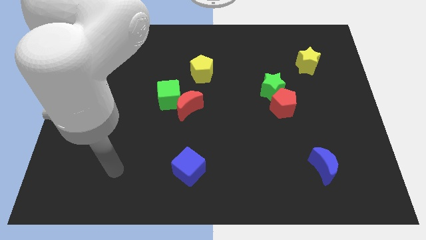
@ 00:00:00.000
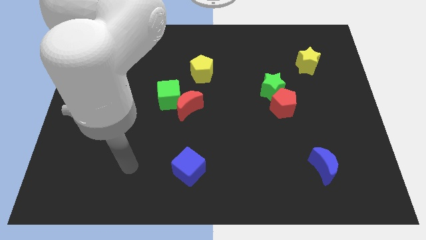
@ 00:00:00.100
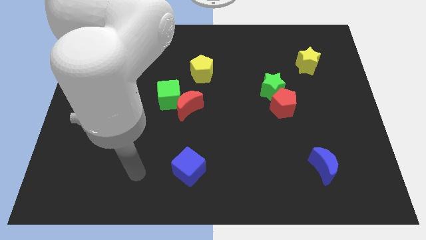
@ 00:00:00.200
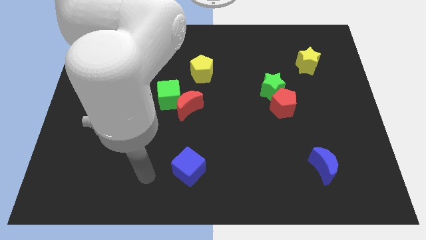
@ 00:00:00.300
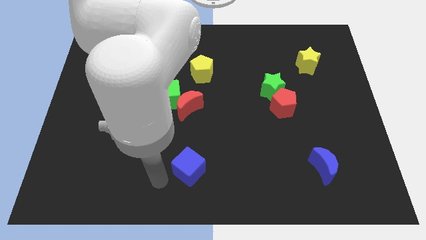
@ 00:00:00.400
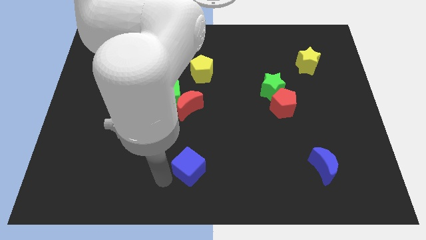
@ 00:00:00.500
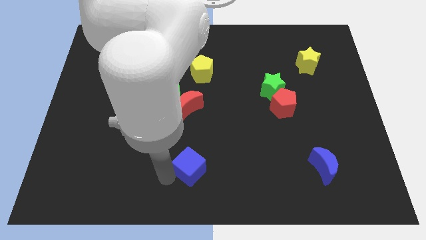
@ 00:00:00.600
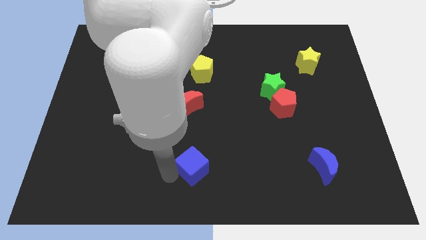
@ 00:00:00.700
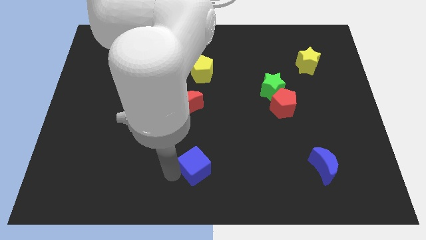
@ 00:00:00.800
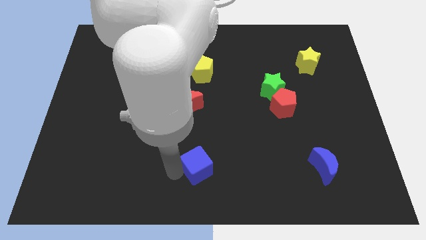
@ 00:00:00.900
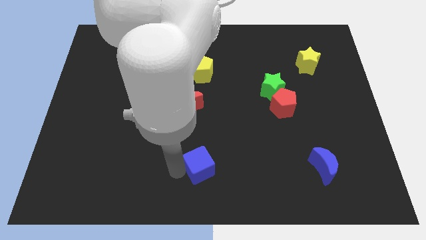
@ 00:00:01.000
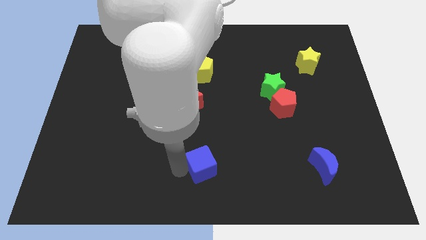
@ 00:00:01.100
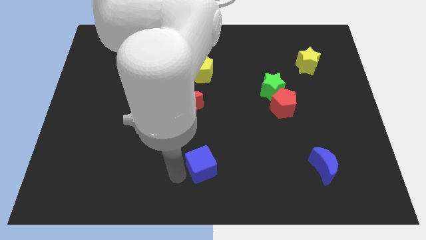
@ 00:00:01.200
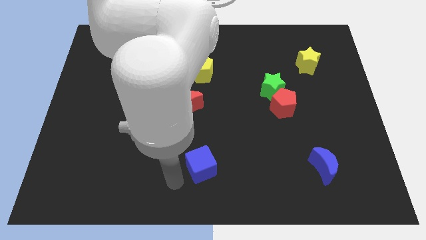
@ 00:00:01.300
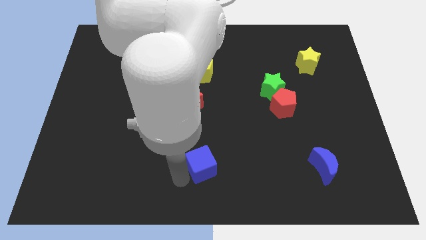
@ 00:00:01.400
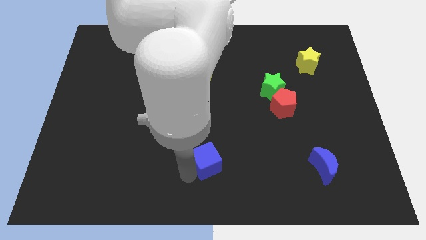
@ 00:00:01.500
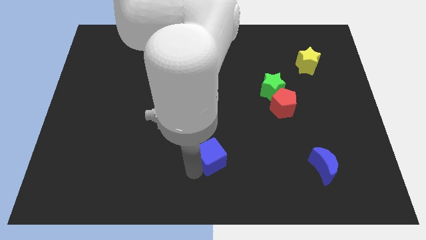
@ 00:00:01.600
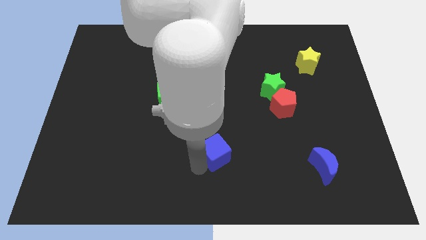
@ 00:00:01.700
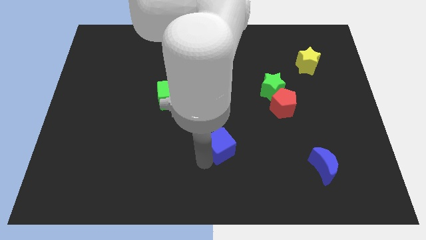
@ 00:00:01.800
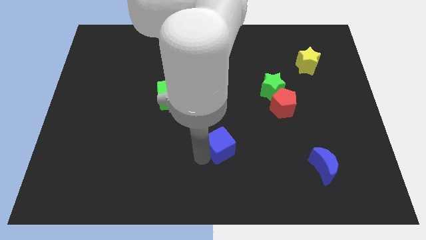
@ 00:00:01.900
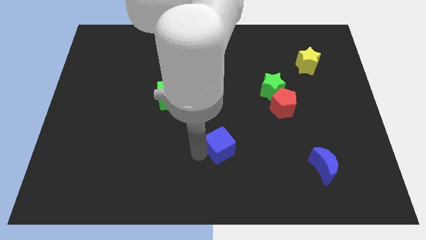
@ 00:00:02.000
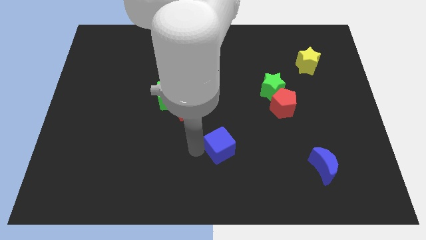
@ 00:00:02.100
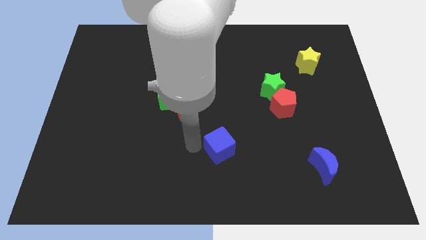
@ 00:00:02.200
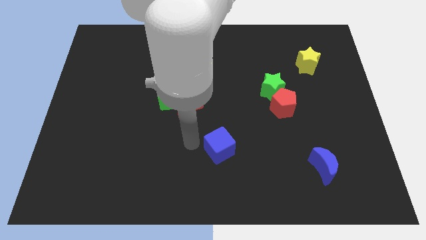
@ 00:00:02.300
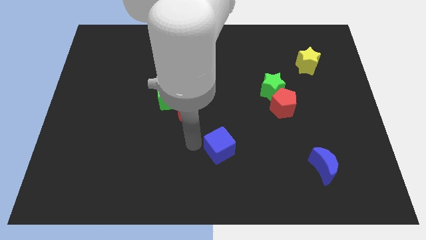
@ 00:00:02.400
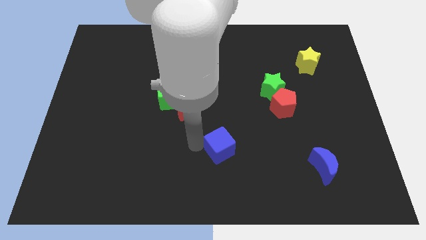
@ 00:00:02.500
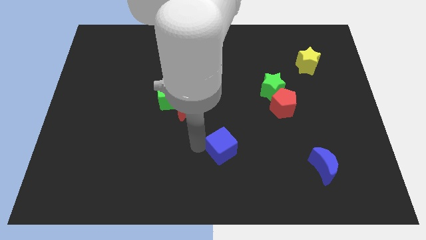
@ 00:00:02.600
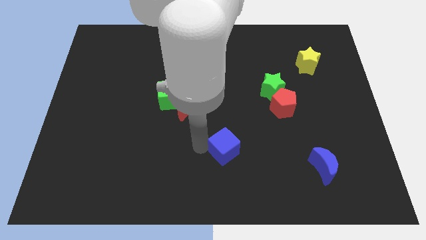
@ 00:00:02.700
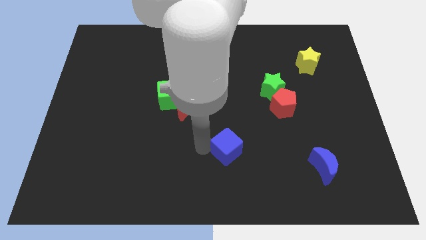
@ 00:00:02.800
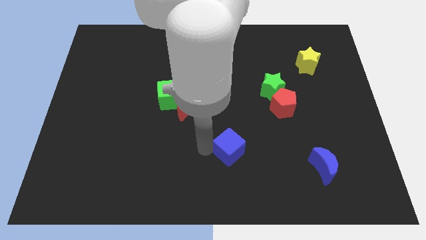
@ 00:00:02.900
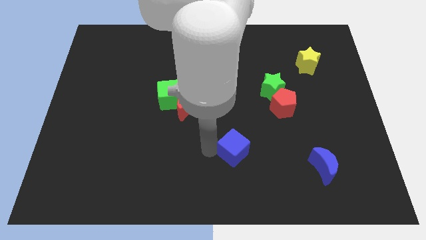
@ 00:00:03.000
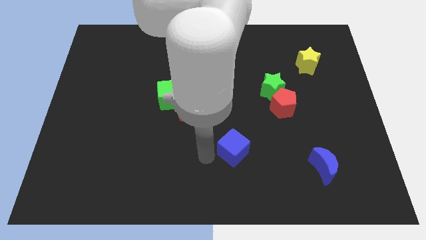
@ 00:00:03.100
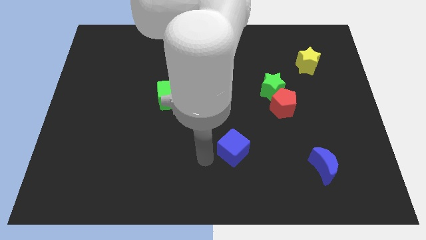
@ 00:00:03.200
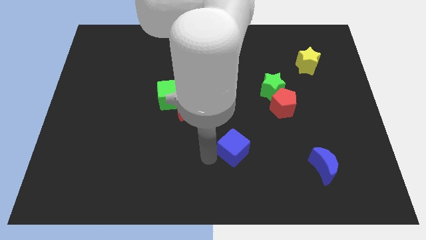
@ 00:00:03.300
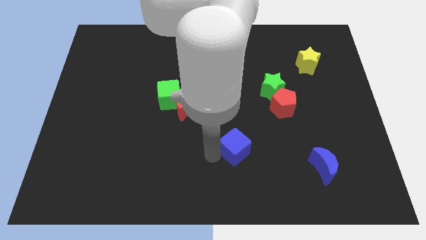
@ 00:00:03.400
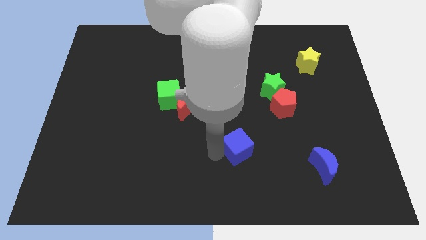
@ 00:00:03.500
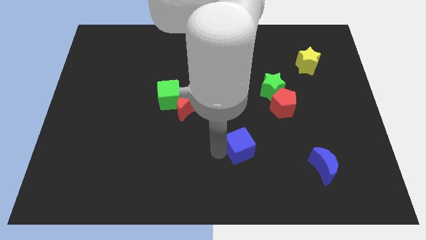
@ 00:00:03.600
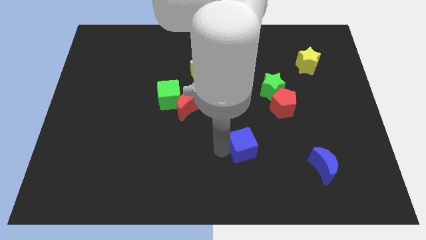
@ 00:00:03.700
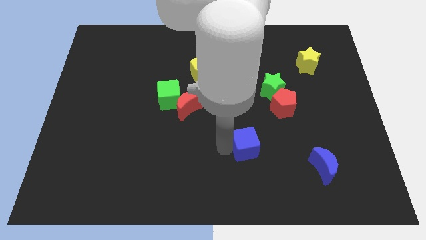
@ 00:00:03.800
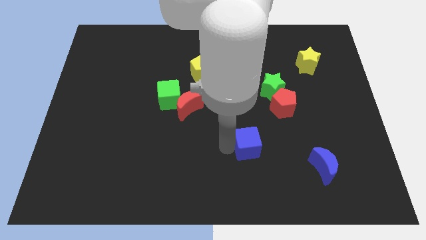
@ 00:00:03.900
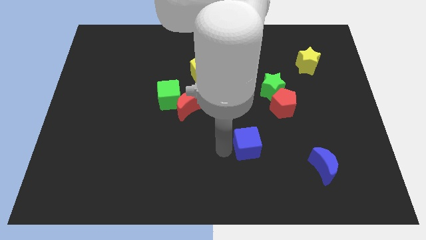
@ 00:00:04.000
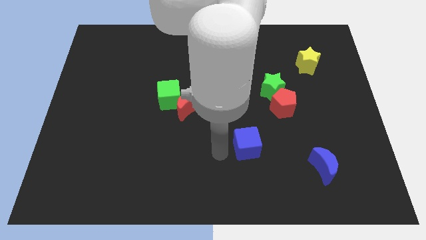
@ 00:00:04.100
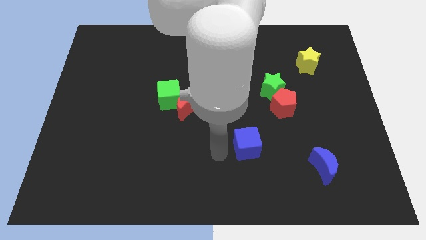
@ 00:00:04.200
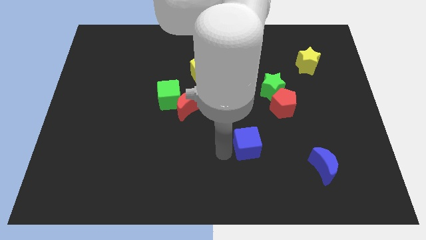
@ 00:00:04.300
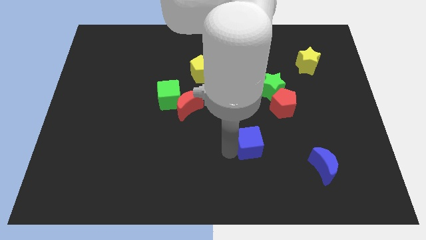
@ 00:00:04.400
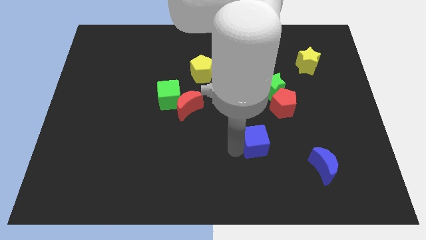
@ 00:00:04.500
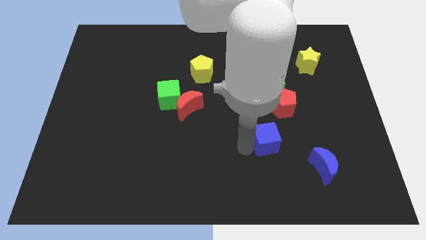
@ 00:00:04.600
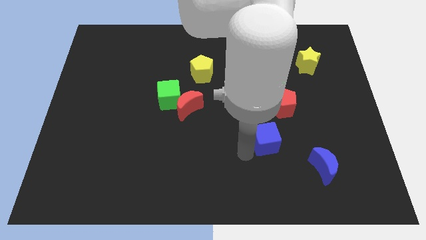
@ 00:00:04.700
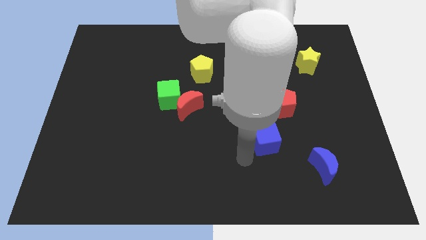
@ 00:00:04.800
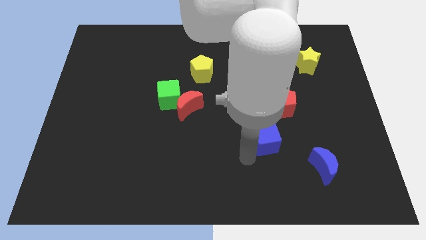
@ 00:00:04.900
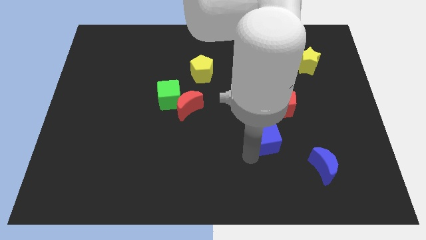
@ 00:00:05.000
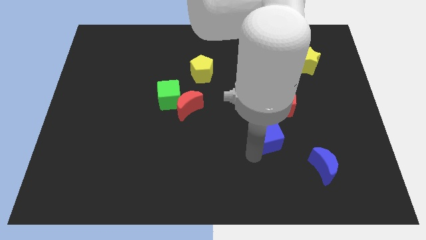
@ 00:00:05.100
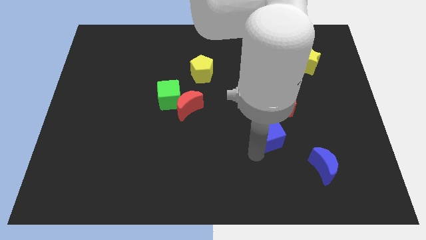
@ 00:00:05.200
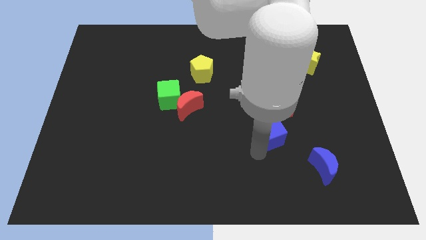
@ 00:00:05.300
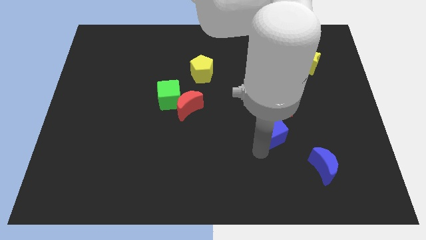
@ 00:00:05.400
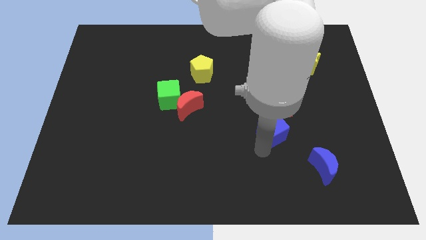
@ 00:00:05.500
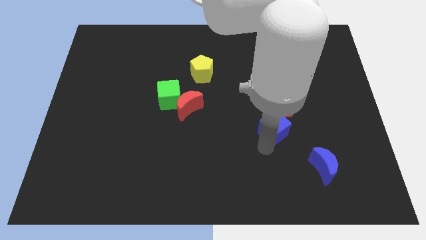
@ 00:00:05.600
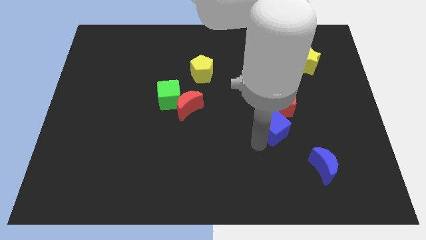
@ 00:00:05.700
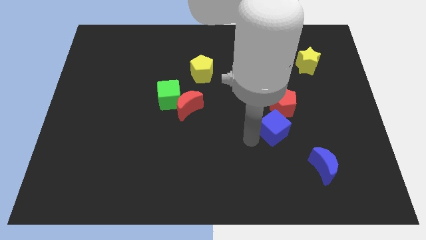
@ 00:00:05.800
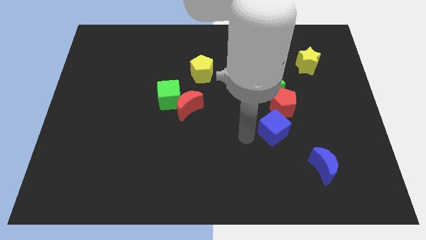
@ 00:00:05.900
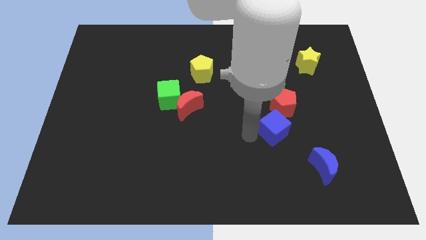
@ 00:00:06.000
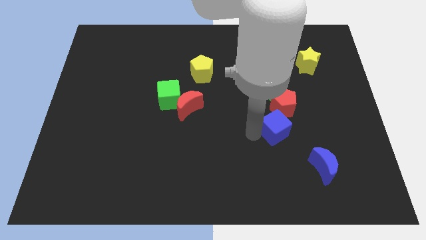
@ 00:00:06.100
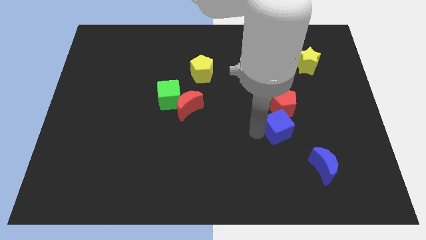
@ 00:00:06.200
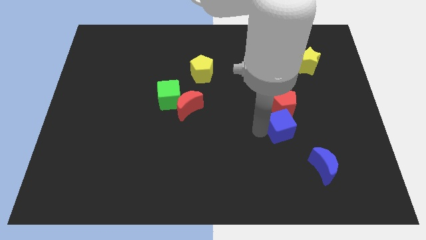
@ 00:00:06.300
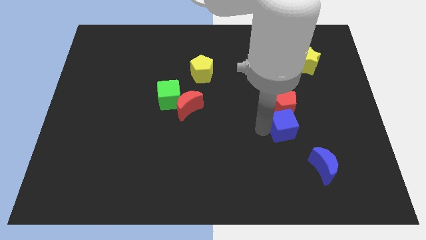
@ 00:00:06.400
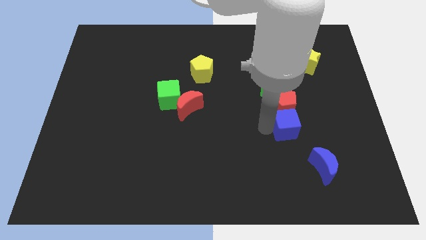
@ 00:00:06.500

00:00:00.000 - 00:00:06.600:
put the blue cube to the bottom right side of the red pentagon
